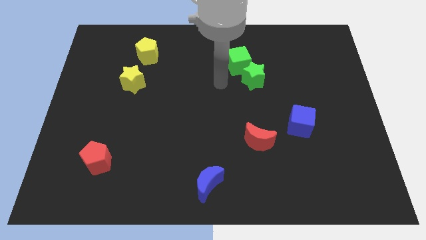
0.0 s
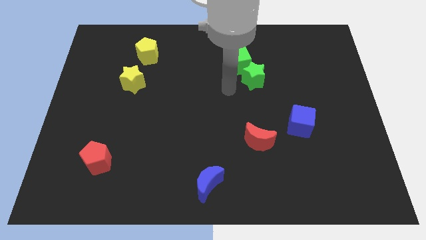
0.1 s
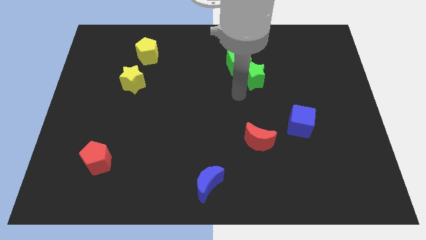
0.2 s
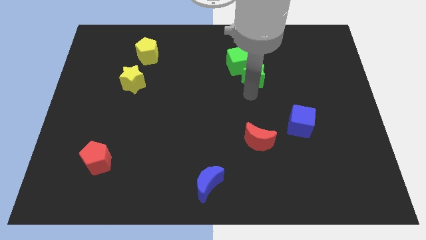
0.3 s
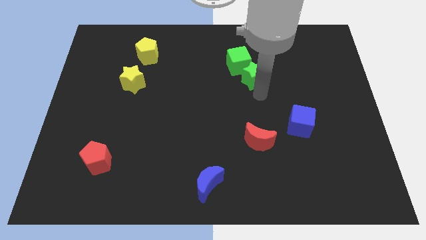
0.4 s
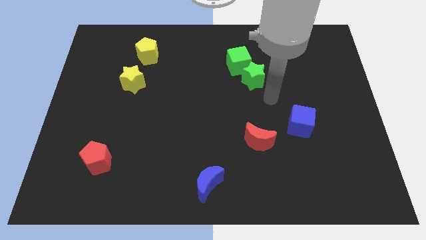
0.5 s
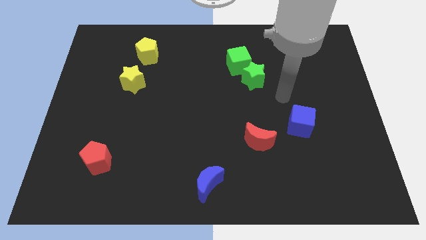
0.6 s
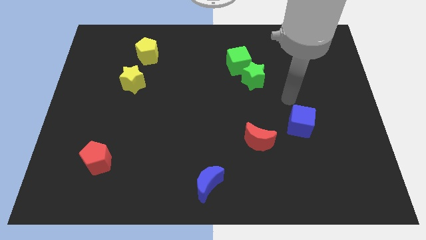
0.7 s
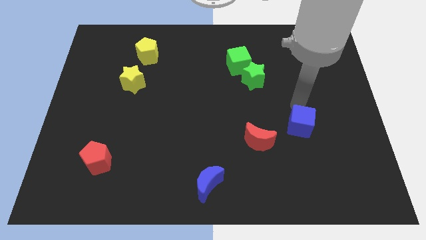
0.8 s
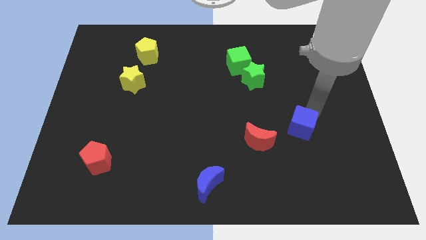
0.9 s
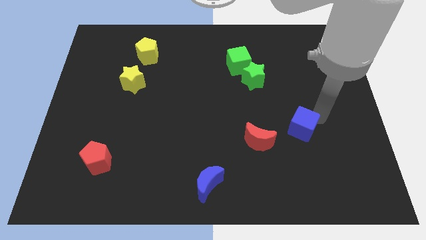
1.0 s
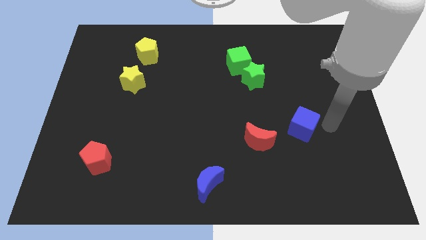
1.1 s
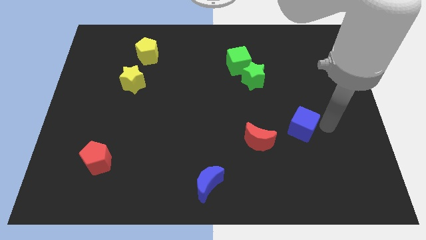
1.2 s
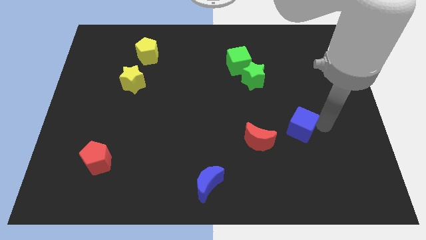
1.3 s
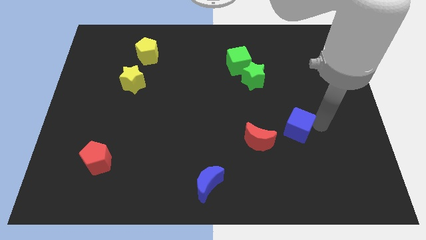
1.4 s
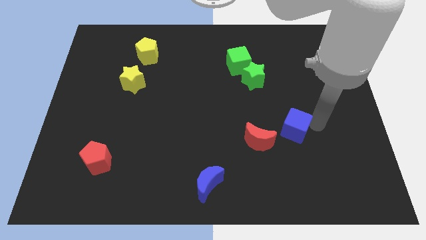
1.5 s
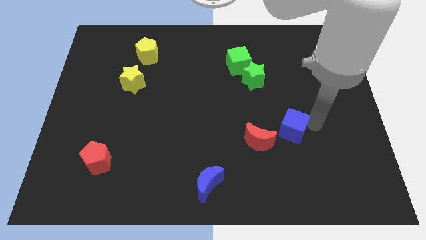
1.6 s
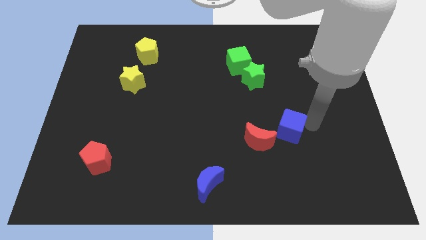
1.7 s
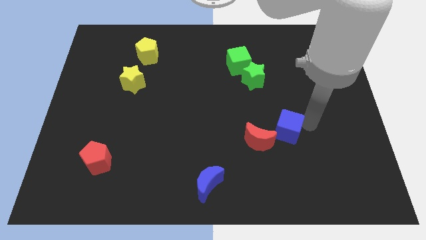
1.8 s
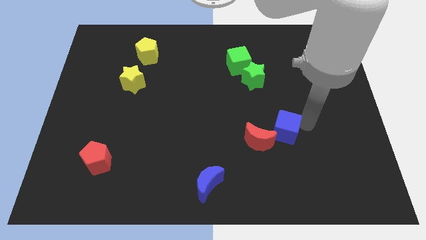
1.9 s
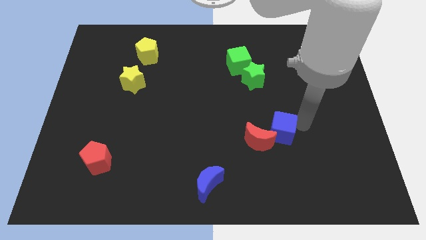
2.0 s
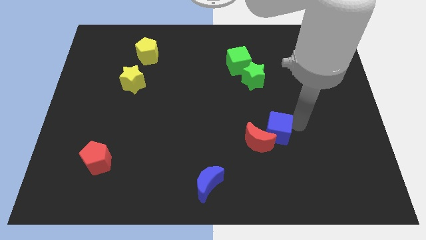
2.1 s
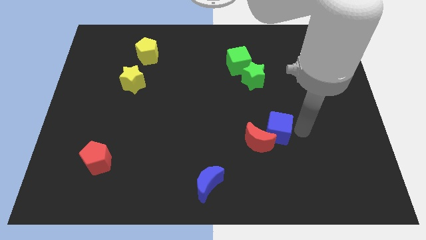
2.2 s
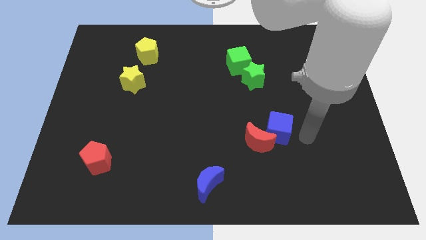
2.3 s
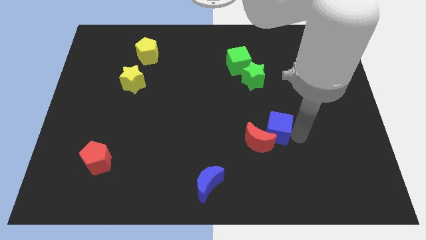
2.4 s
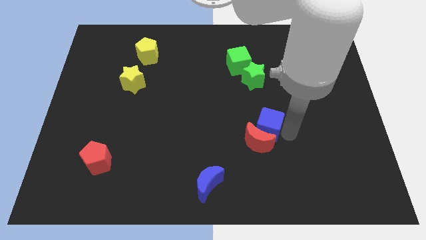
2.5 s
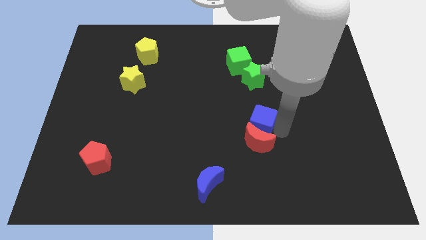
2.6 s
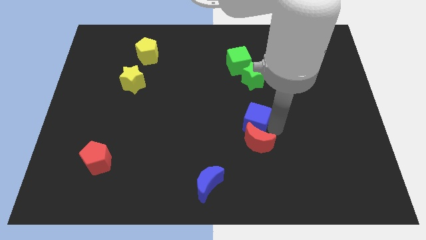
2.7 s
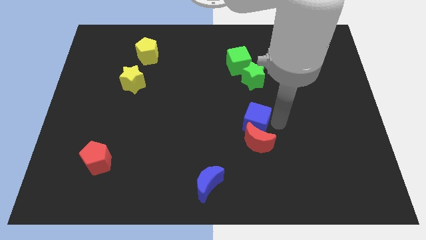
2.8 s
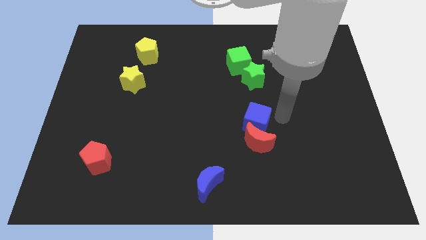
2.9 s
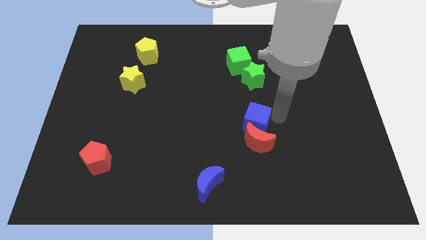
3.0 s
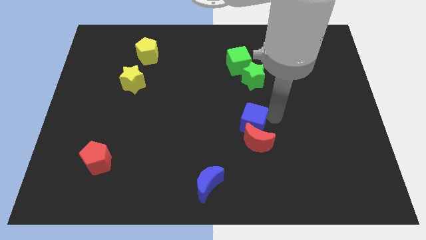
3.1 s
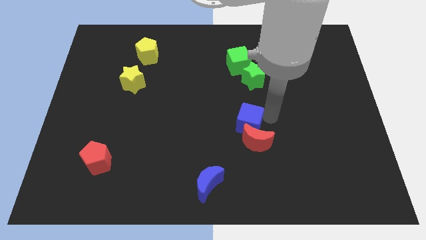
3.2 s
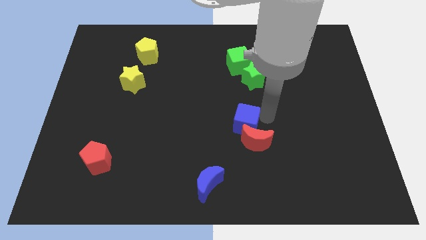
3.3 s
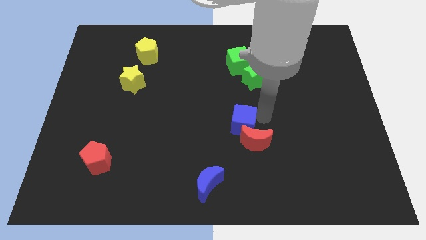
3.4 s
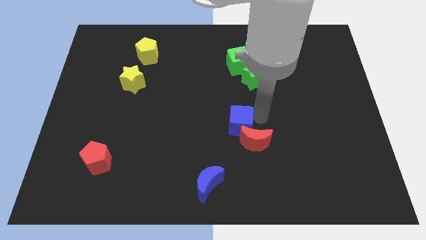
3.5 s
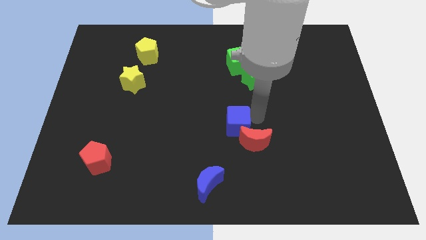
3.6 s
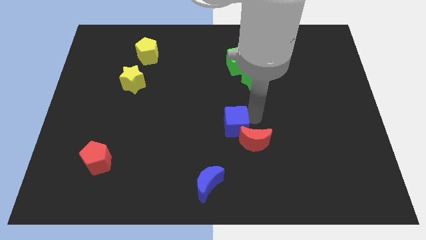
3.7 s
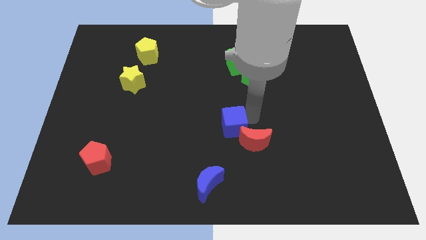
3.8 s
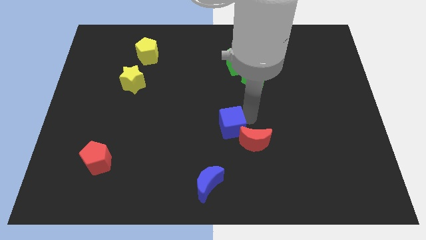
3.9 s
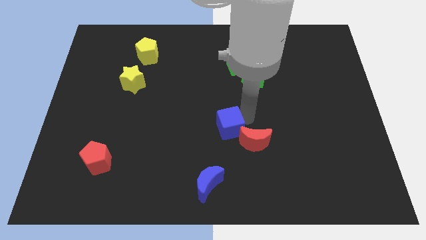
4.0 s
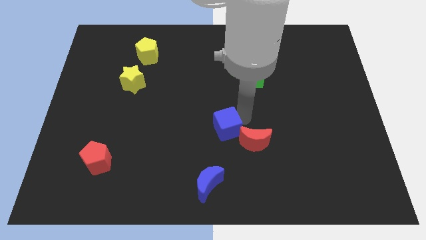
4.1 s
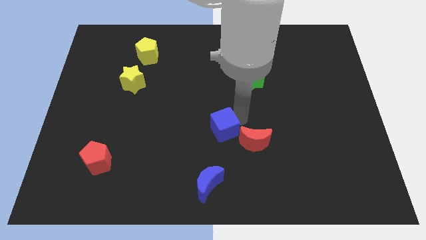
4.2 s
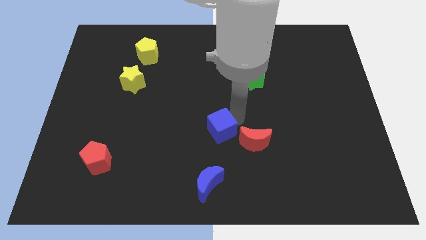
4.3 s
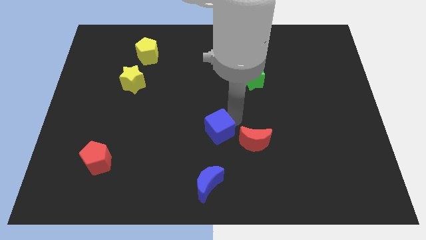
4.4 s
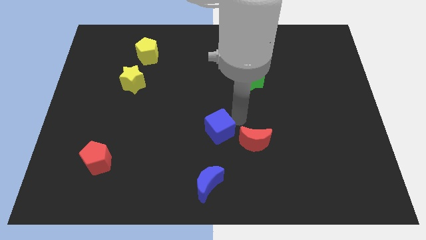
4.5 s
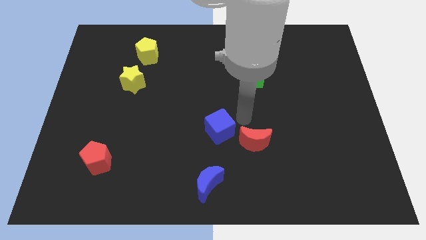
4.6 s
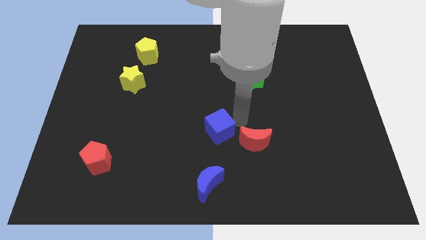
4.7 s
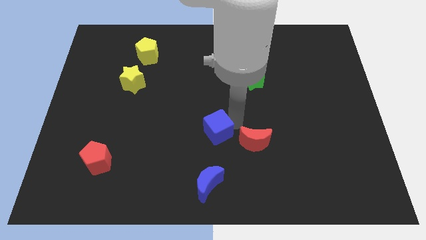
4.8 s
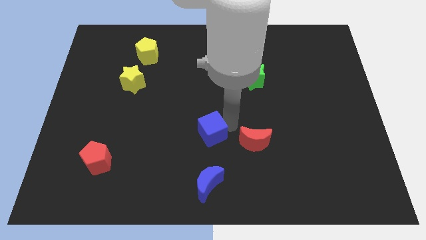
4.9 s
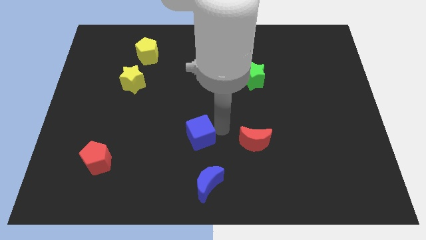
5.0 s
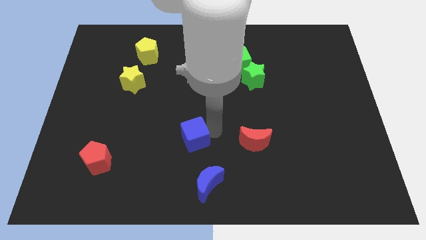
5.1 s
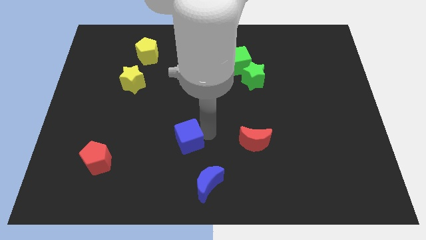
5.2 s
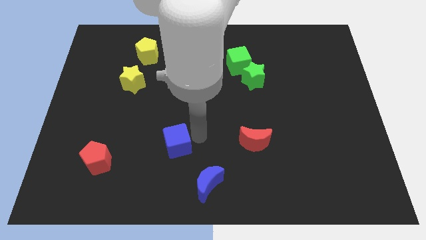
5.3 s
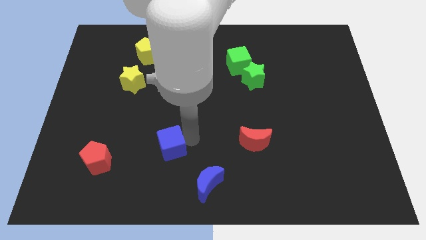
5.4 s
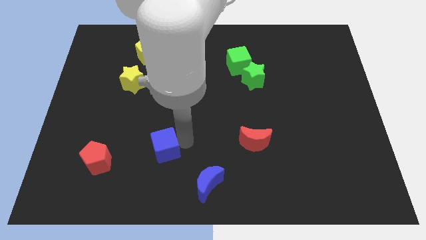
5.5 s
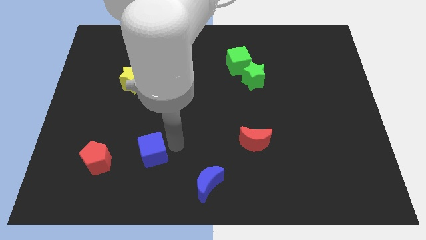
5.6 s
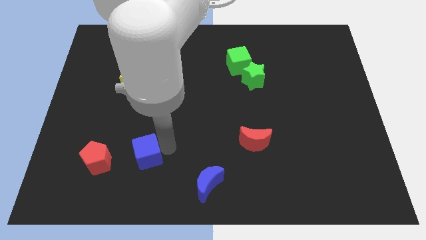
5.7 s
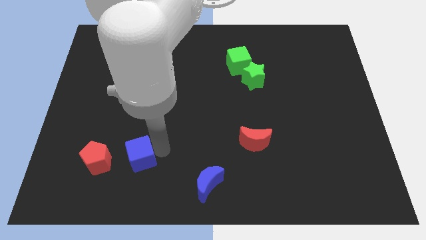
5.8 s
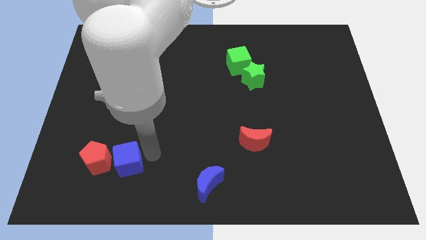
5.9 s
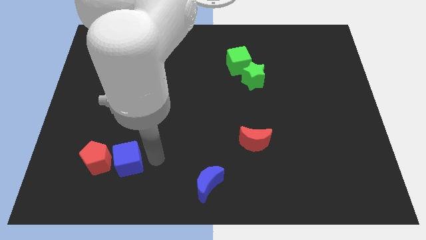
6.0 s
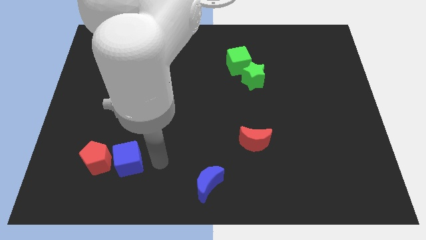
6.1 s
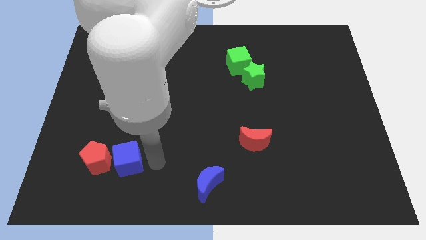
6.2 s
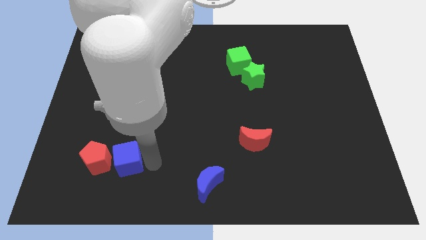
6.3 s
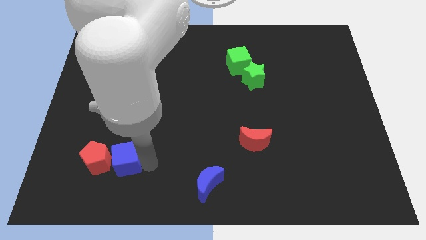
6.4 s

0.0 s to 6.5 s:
put the blue cube close to the red pentagon

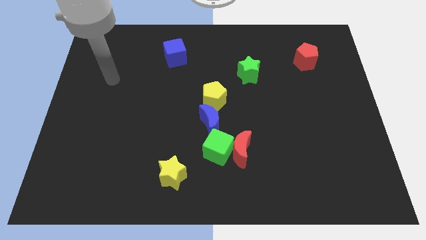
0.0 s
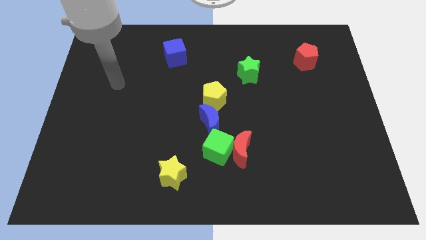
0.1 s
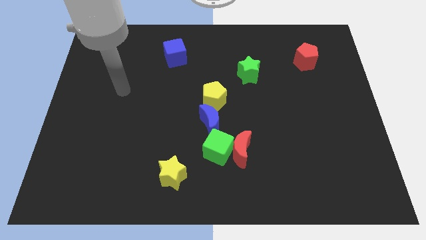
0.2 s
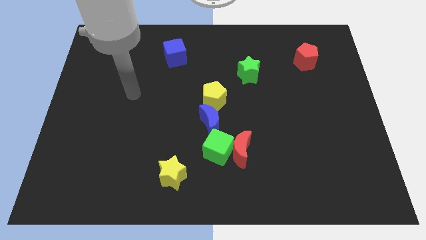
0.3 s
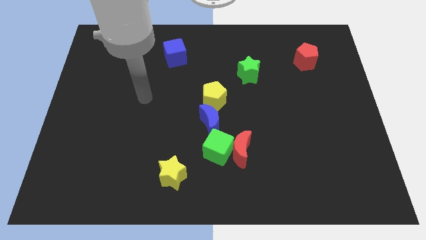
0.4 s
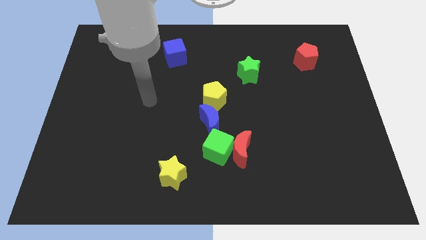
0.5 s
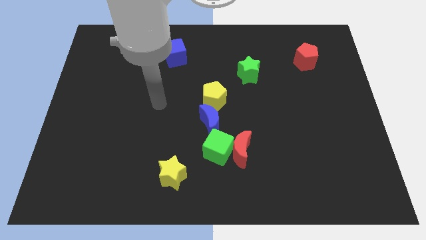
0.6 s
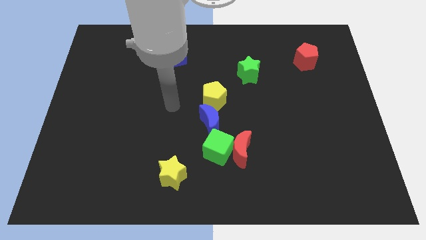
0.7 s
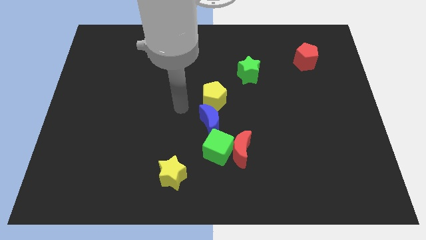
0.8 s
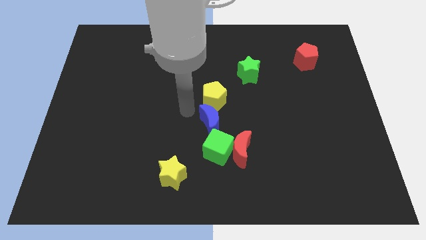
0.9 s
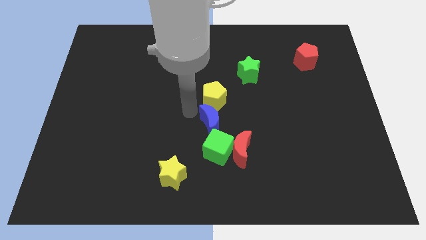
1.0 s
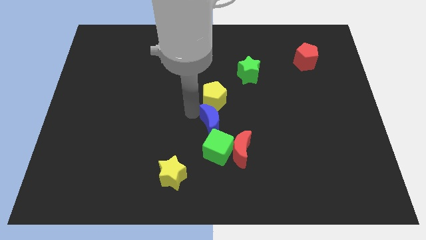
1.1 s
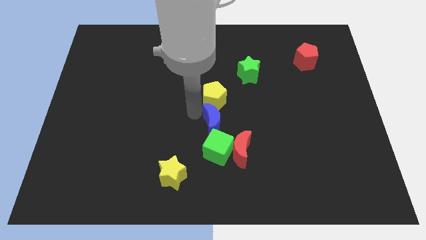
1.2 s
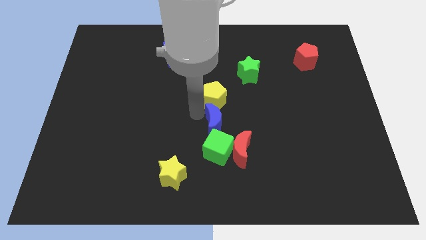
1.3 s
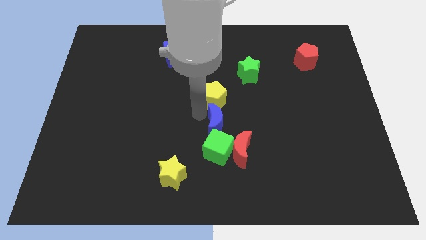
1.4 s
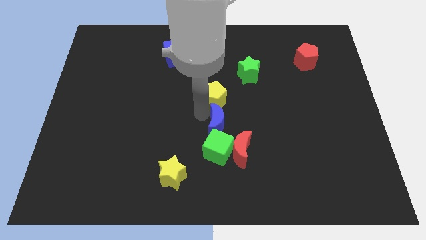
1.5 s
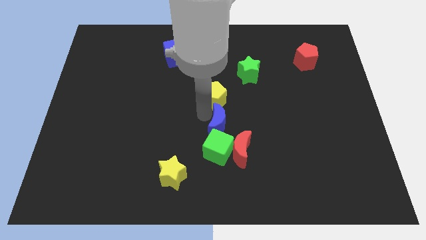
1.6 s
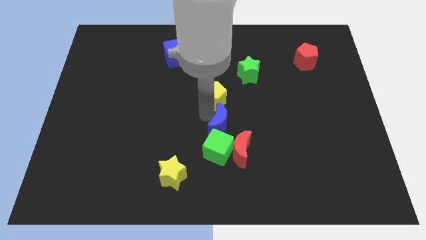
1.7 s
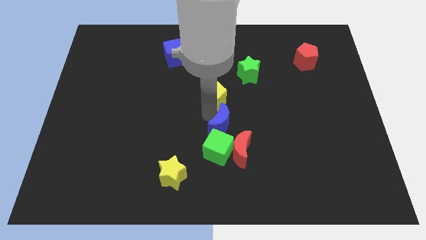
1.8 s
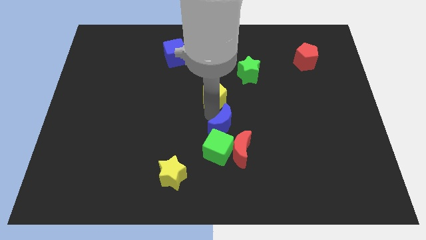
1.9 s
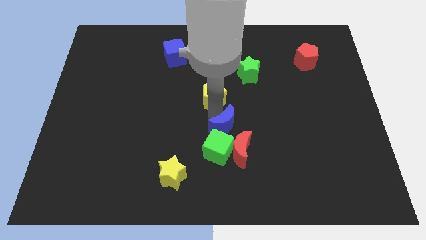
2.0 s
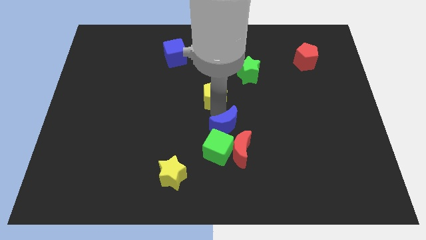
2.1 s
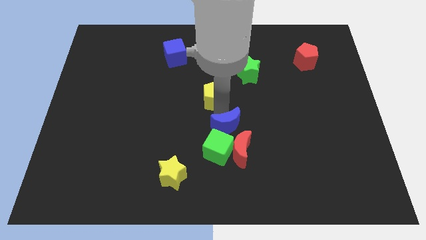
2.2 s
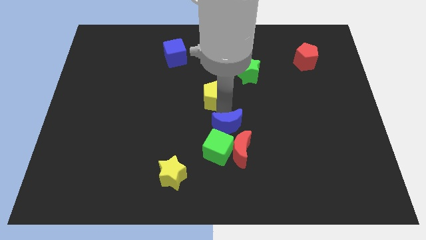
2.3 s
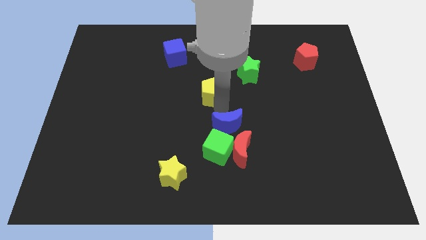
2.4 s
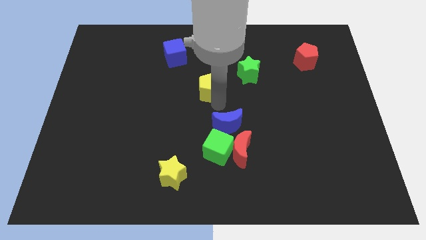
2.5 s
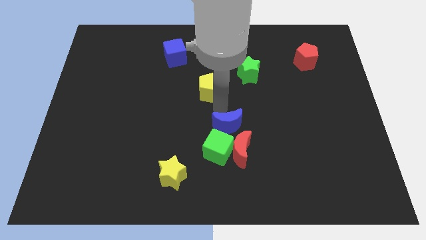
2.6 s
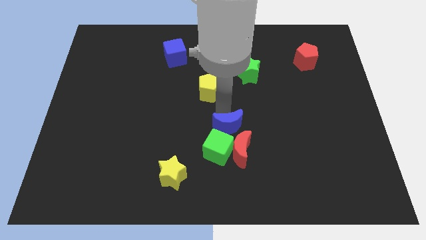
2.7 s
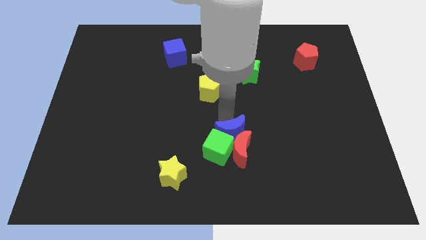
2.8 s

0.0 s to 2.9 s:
push the blue moon next to the red moon
